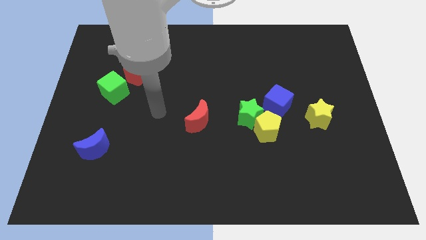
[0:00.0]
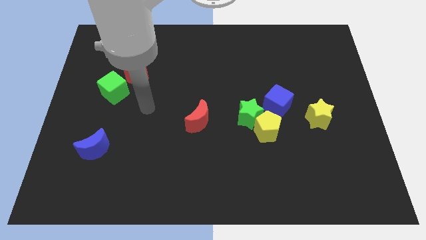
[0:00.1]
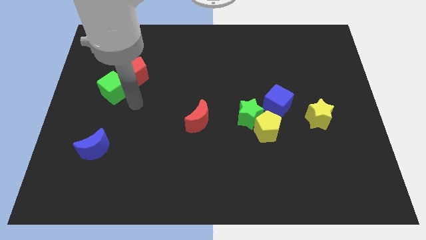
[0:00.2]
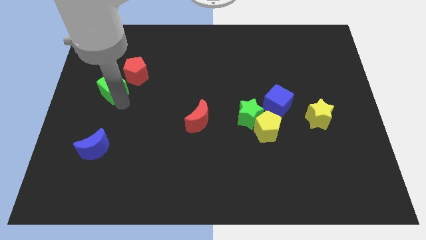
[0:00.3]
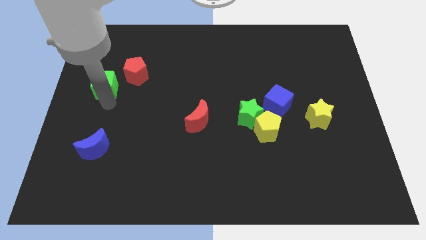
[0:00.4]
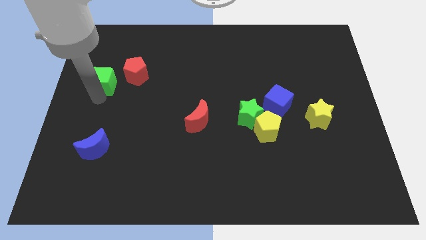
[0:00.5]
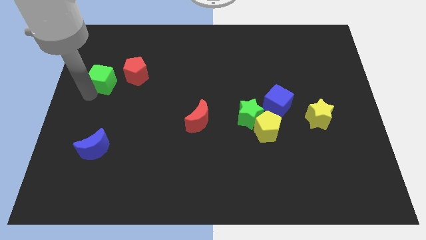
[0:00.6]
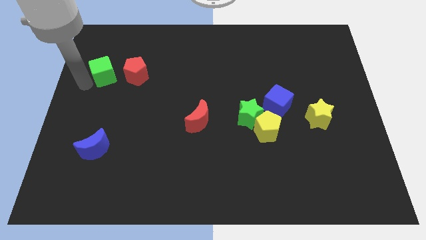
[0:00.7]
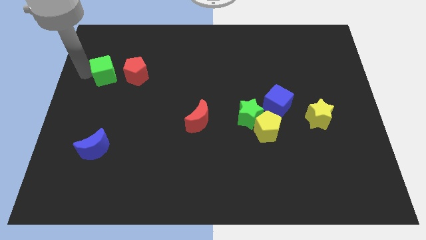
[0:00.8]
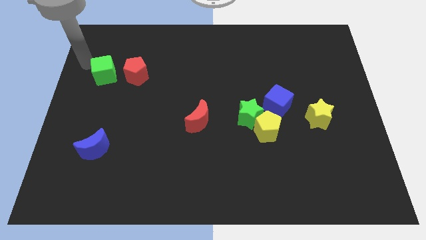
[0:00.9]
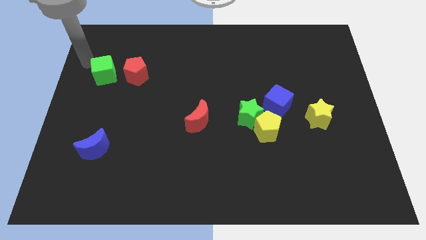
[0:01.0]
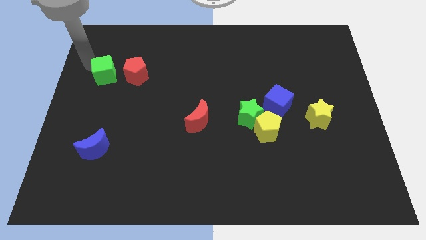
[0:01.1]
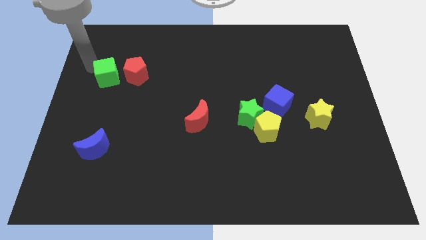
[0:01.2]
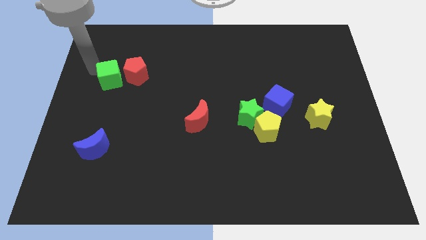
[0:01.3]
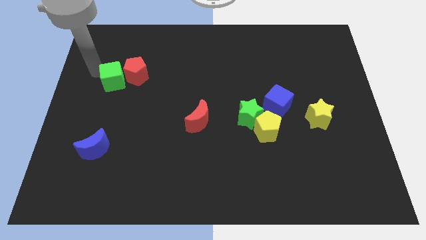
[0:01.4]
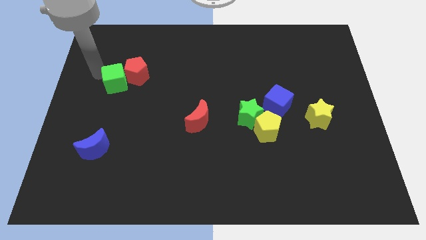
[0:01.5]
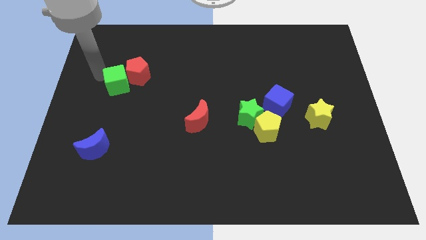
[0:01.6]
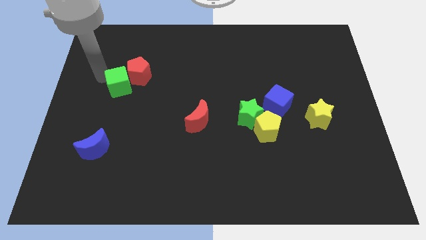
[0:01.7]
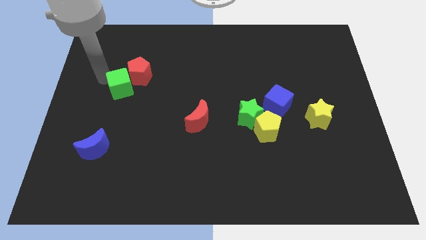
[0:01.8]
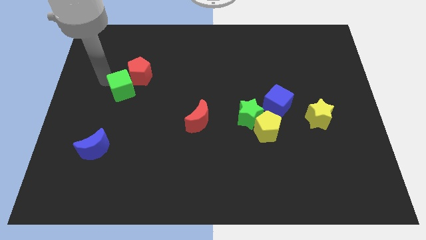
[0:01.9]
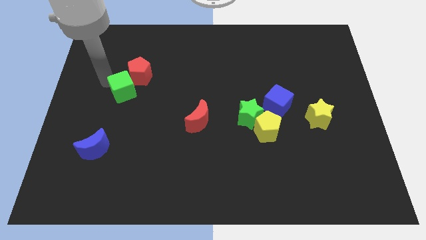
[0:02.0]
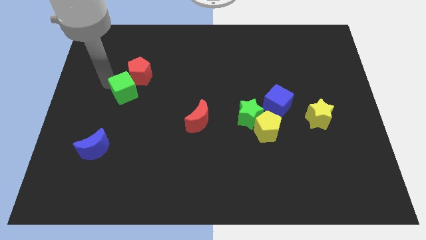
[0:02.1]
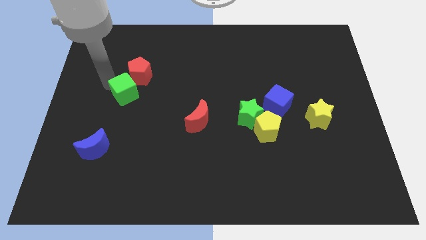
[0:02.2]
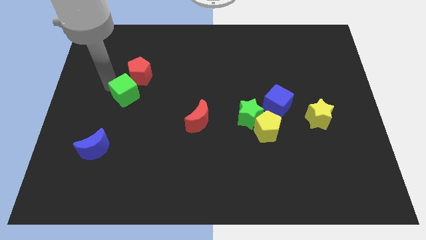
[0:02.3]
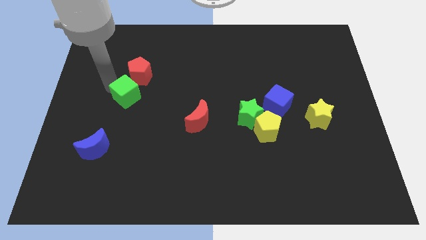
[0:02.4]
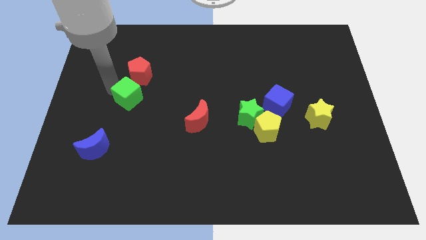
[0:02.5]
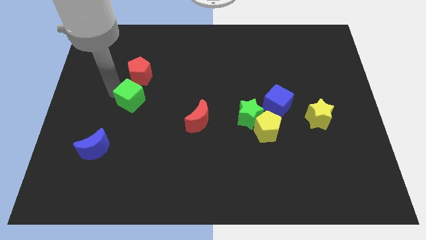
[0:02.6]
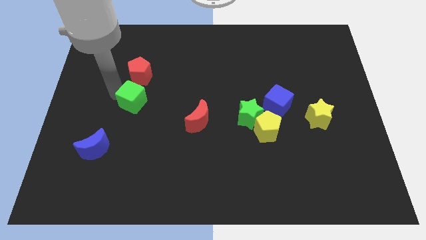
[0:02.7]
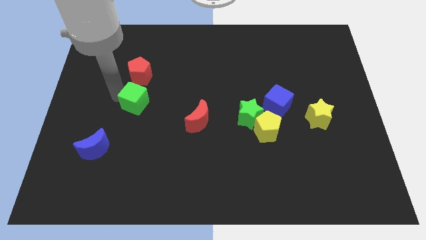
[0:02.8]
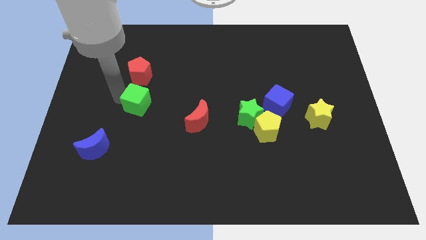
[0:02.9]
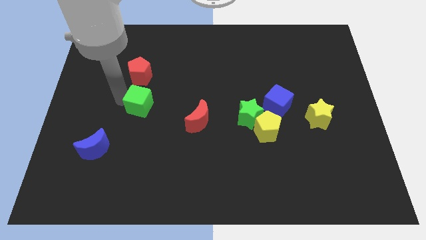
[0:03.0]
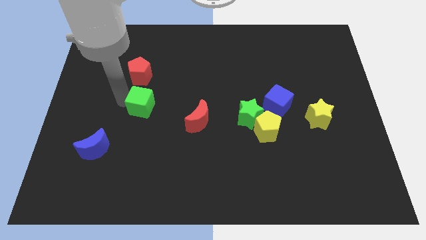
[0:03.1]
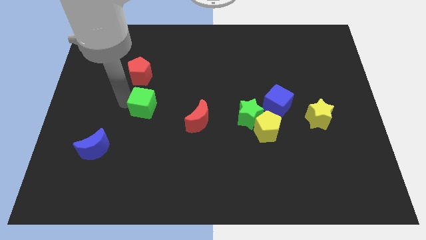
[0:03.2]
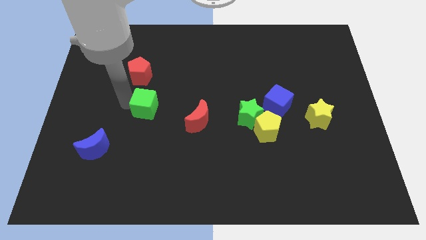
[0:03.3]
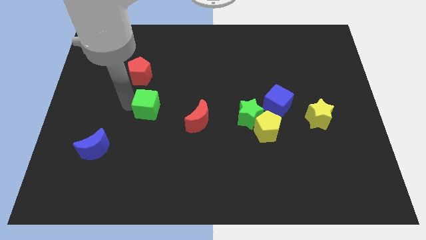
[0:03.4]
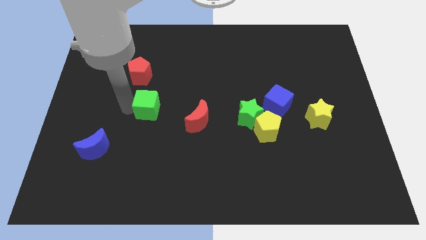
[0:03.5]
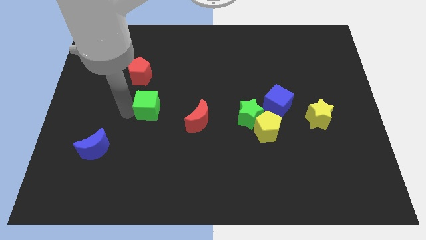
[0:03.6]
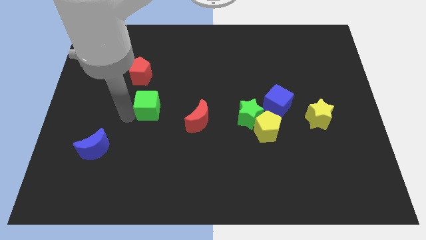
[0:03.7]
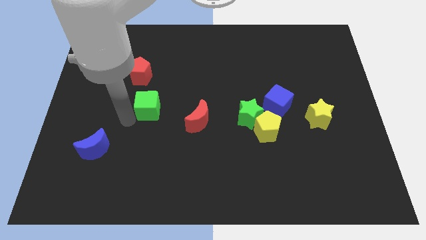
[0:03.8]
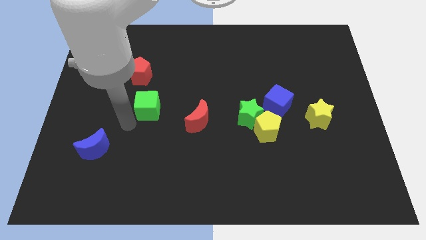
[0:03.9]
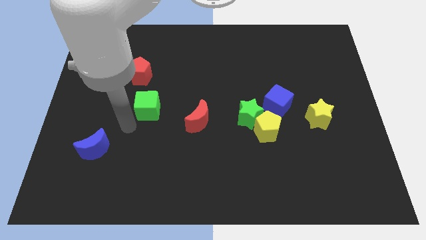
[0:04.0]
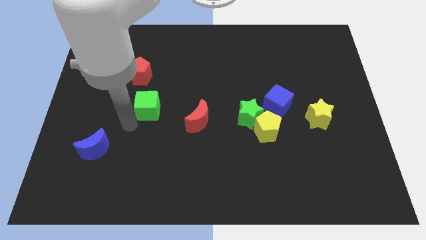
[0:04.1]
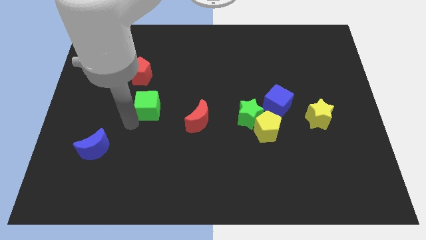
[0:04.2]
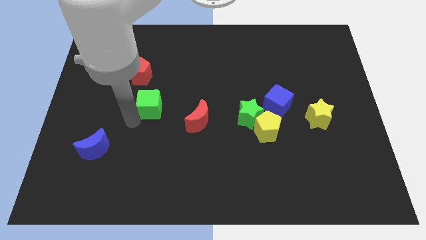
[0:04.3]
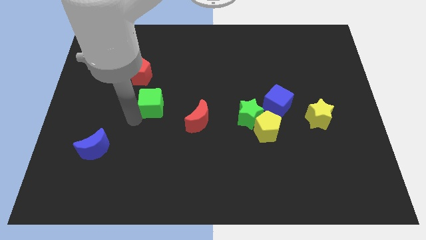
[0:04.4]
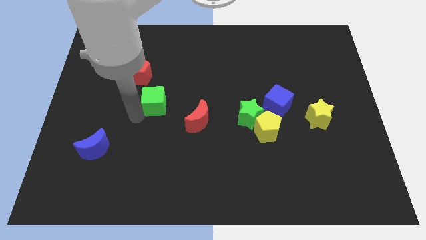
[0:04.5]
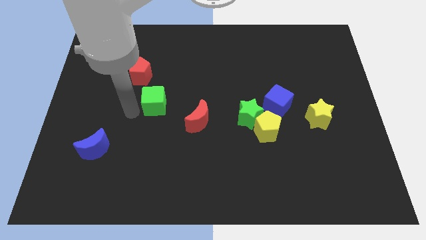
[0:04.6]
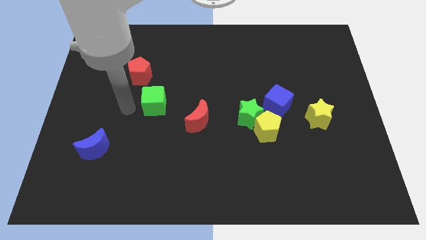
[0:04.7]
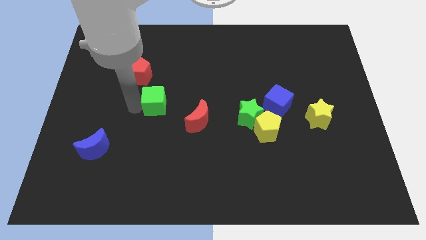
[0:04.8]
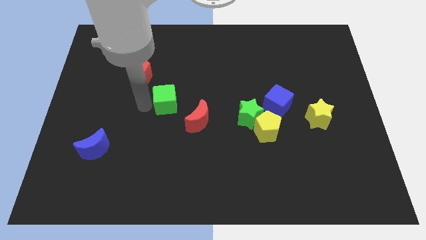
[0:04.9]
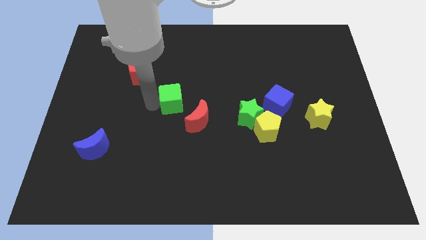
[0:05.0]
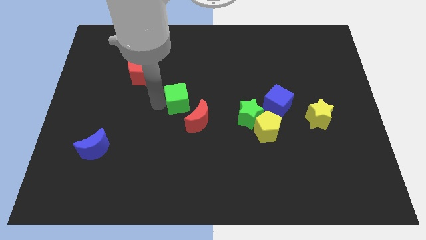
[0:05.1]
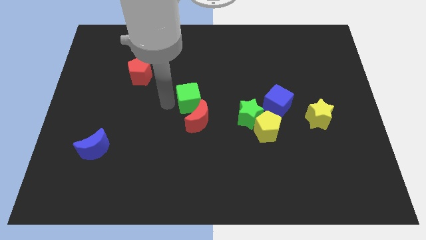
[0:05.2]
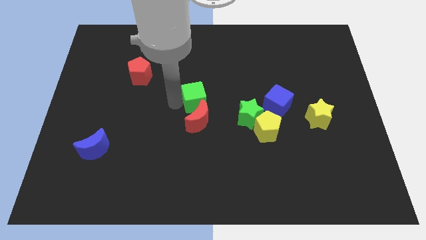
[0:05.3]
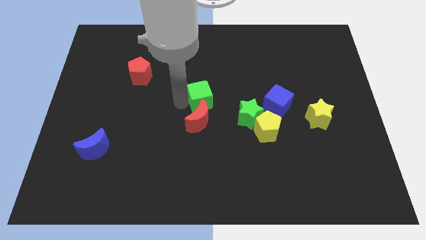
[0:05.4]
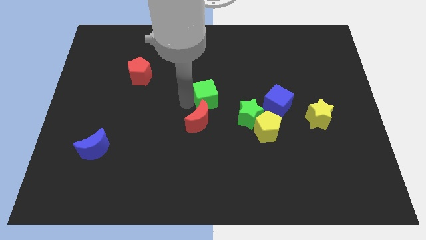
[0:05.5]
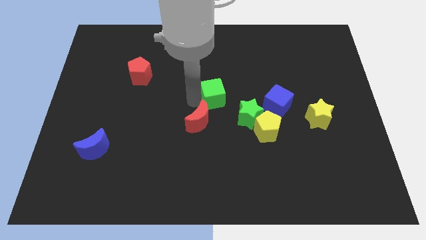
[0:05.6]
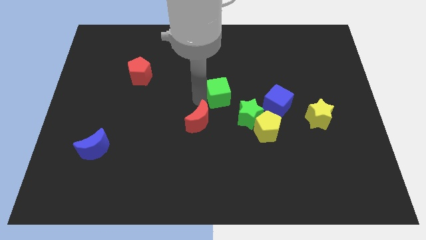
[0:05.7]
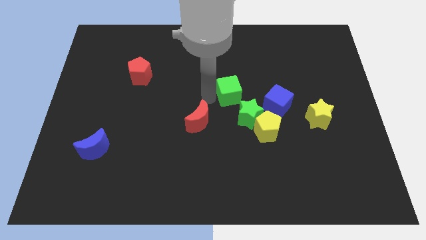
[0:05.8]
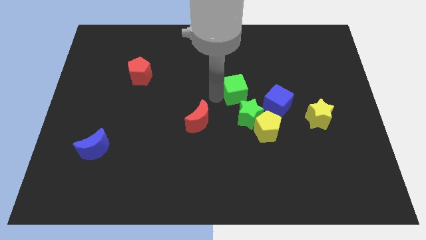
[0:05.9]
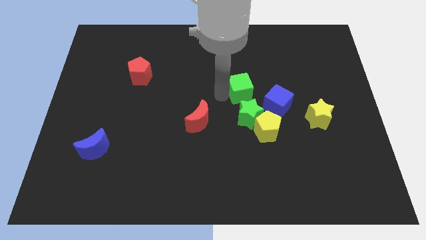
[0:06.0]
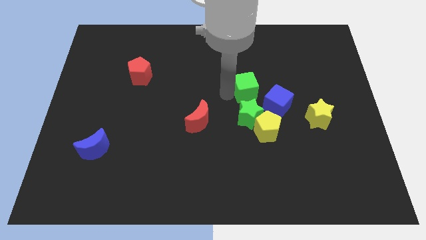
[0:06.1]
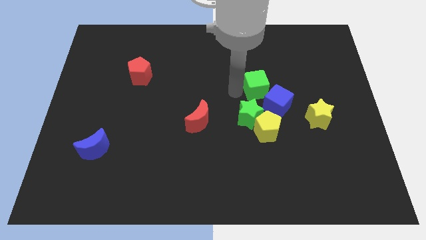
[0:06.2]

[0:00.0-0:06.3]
move the green cube to the top right of the green star

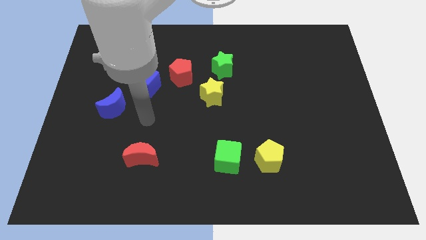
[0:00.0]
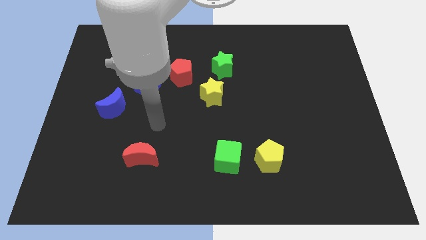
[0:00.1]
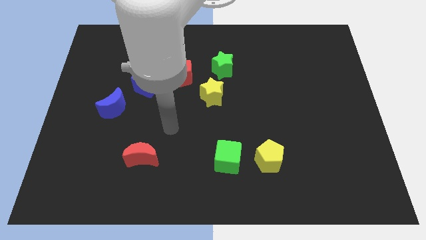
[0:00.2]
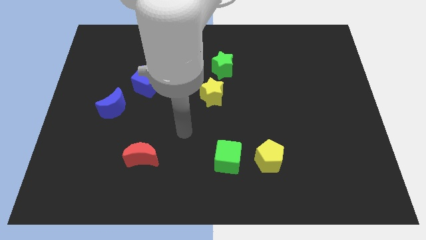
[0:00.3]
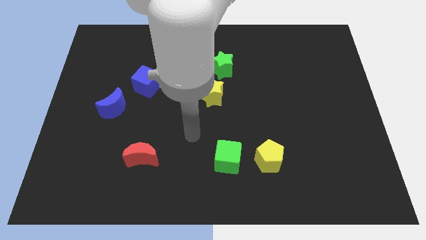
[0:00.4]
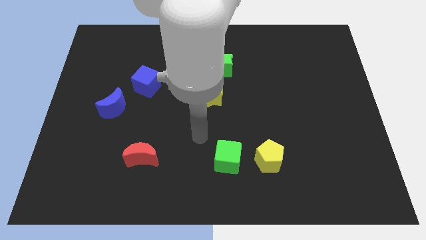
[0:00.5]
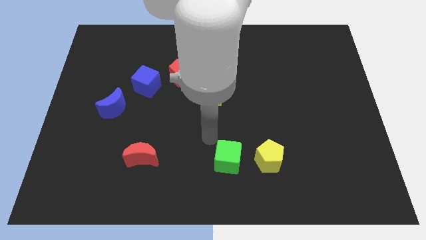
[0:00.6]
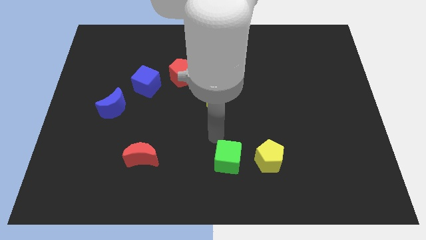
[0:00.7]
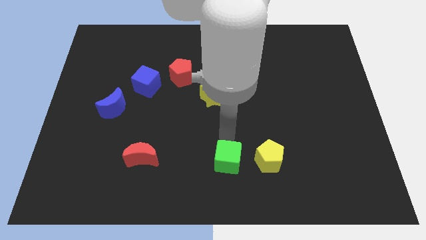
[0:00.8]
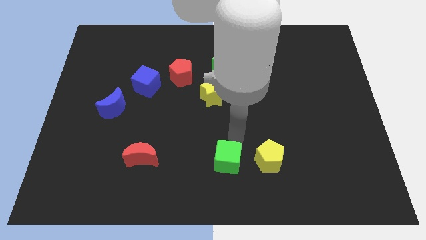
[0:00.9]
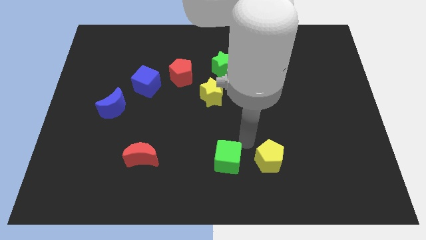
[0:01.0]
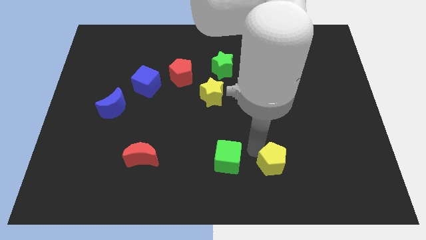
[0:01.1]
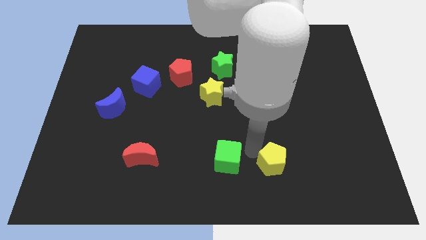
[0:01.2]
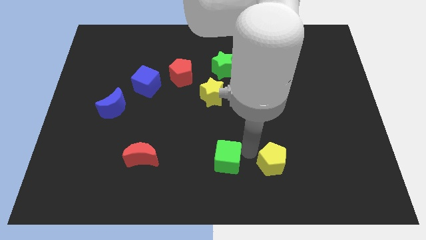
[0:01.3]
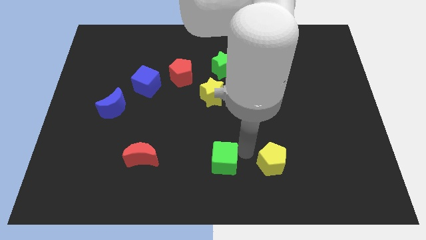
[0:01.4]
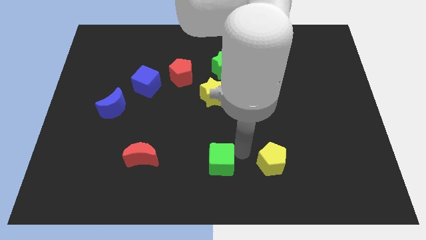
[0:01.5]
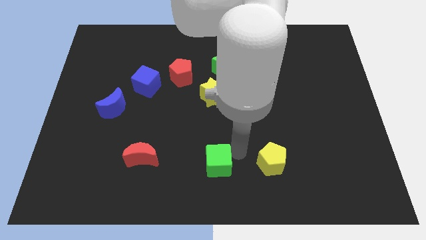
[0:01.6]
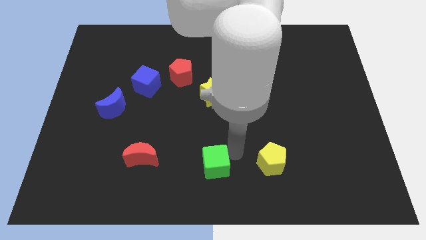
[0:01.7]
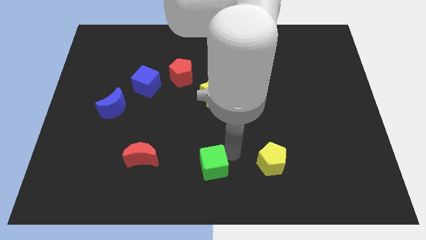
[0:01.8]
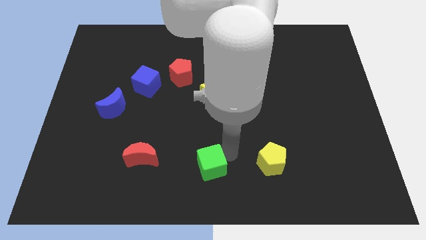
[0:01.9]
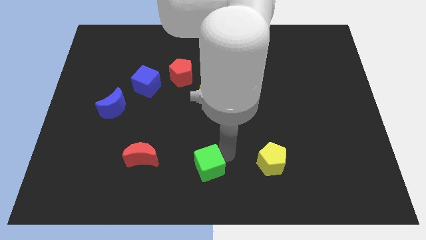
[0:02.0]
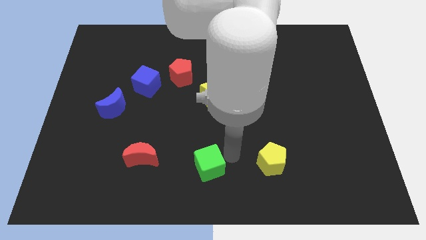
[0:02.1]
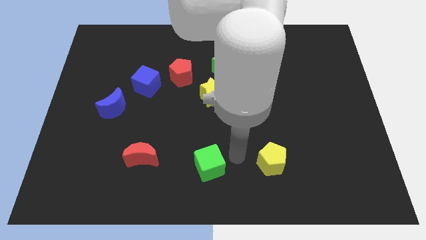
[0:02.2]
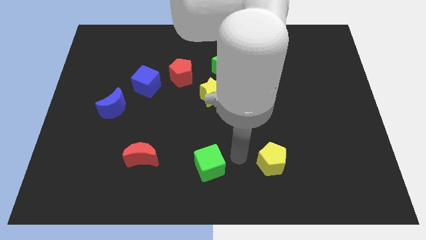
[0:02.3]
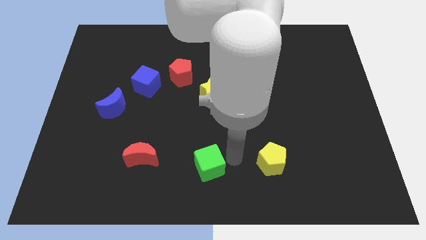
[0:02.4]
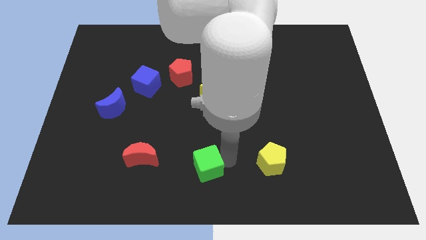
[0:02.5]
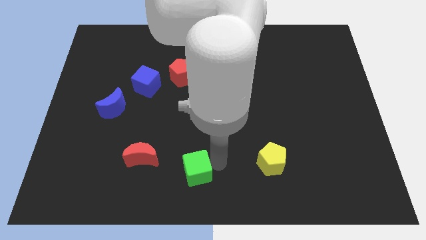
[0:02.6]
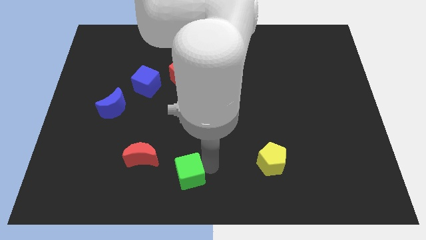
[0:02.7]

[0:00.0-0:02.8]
slide the green cube to the bottom right of the red moon
